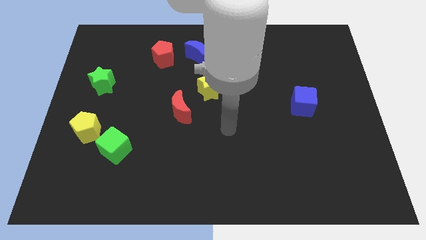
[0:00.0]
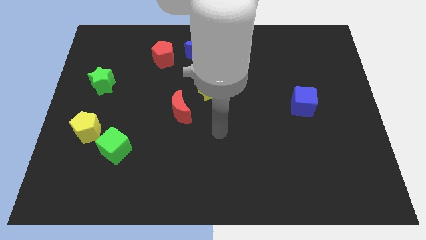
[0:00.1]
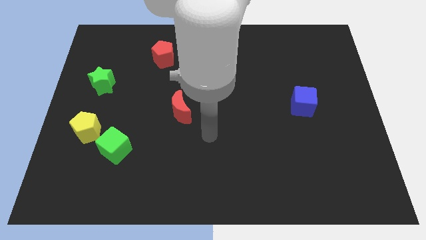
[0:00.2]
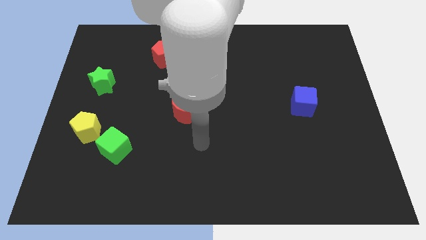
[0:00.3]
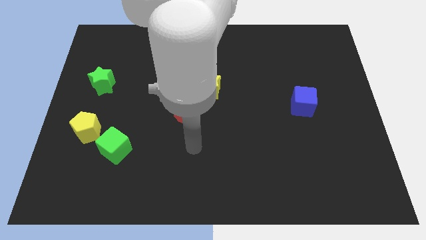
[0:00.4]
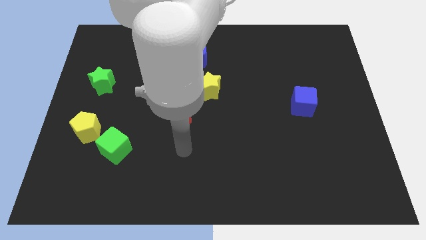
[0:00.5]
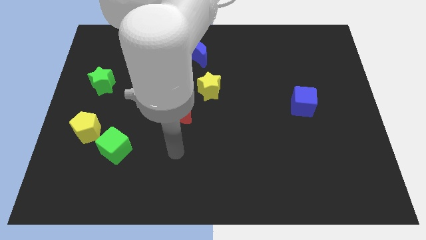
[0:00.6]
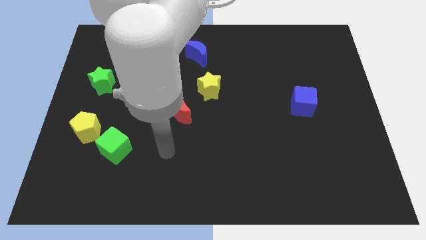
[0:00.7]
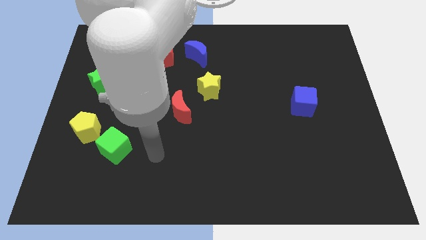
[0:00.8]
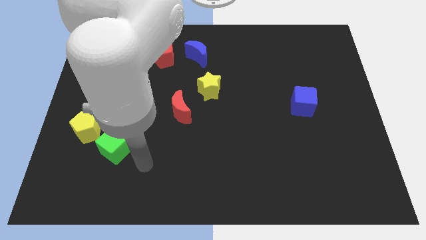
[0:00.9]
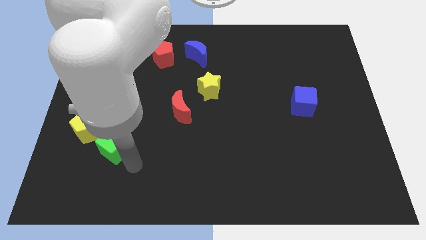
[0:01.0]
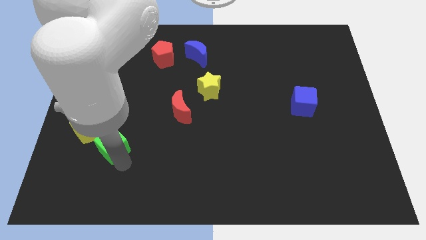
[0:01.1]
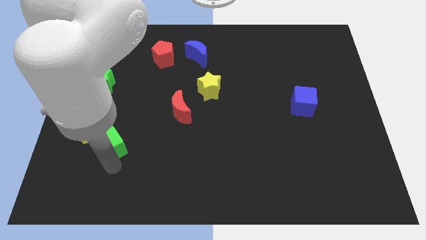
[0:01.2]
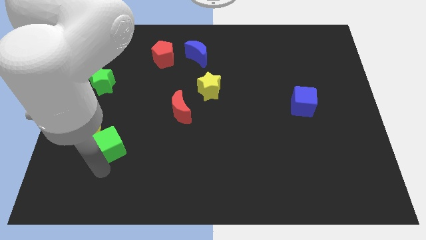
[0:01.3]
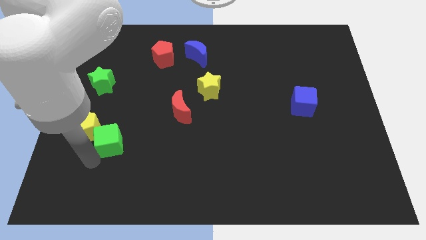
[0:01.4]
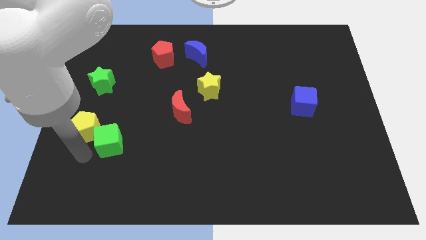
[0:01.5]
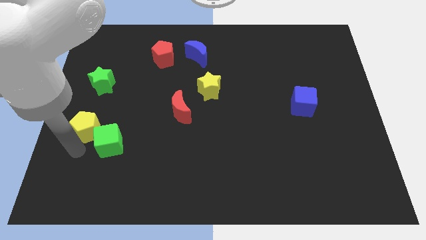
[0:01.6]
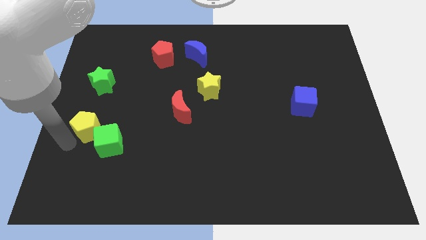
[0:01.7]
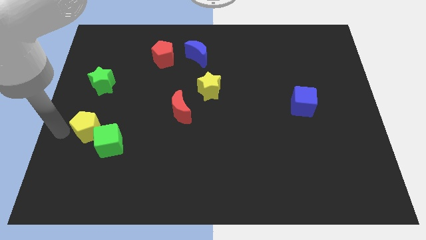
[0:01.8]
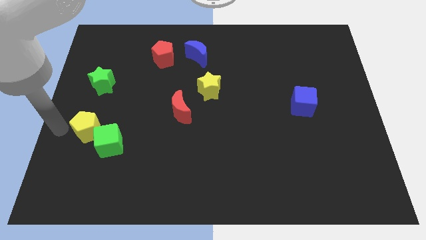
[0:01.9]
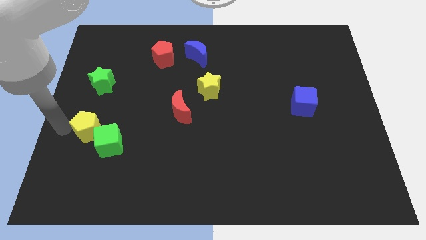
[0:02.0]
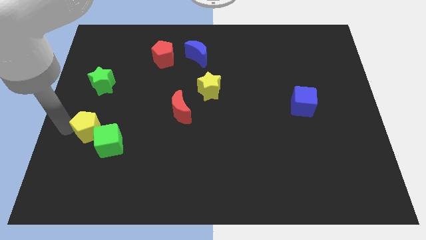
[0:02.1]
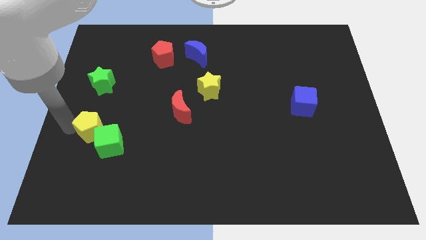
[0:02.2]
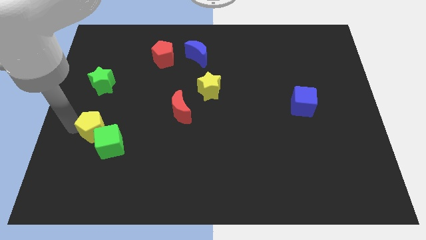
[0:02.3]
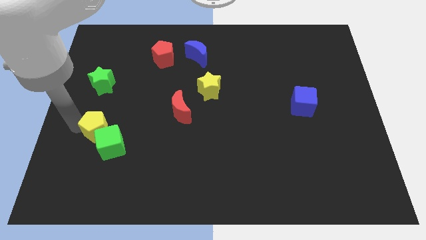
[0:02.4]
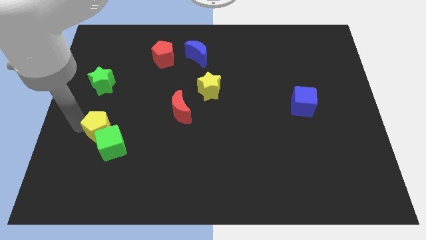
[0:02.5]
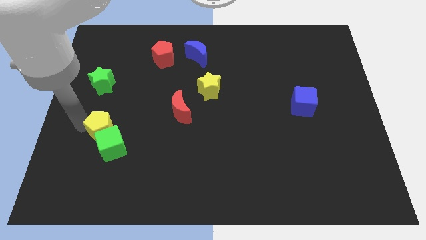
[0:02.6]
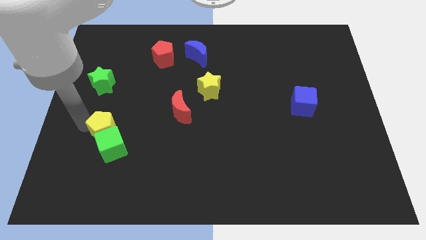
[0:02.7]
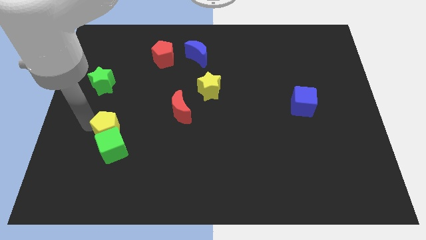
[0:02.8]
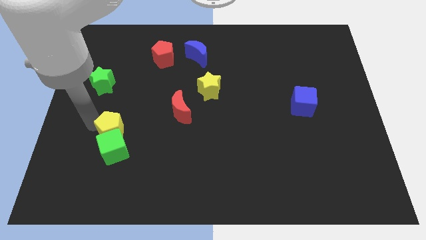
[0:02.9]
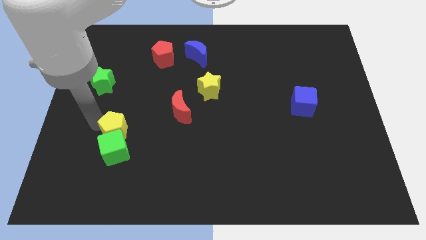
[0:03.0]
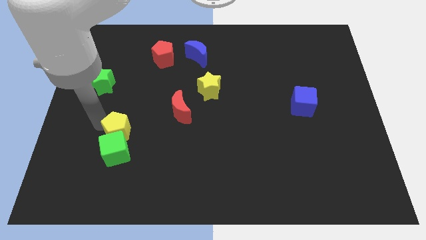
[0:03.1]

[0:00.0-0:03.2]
slide the yellow pentagon to the right a bit

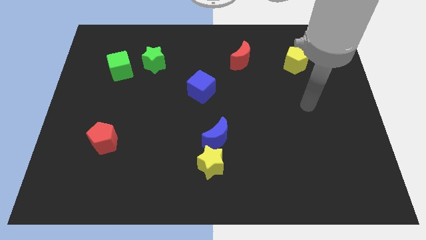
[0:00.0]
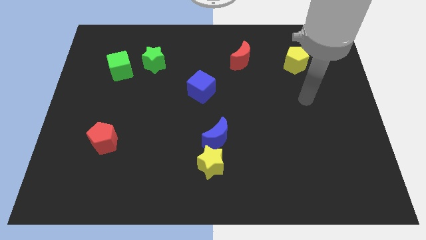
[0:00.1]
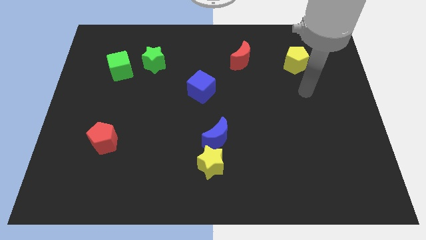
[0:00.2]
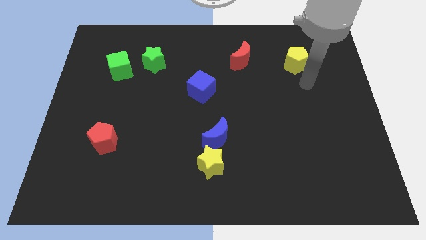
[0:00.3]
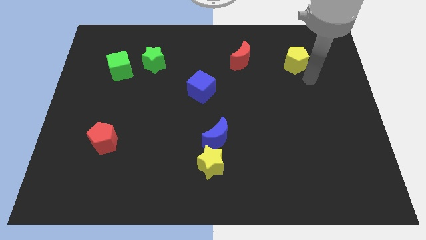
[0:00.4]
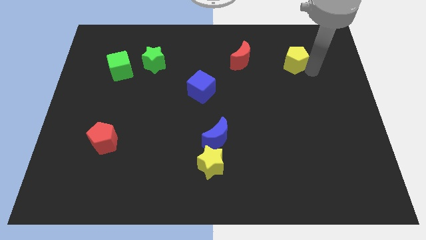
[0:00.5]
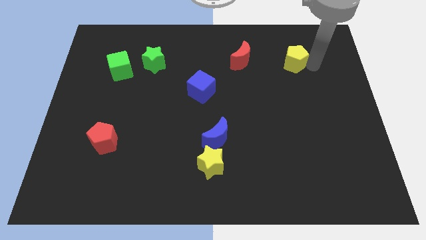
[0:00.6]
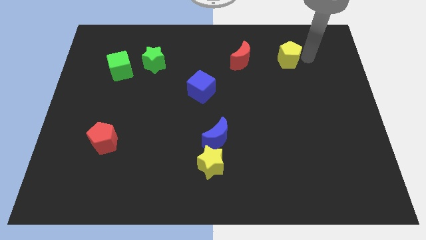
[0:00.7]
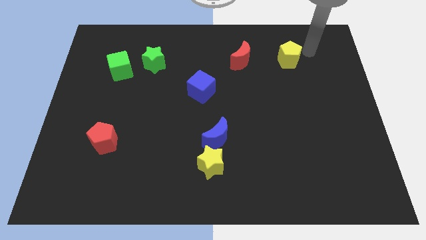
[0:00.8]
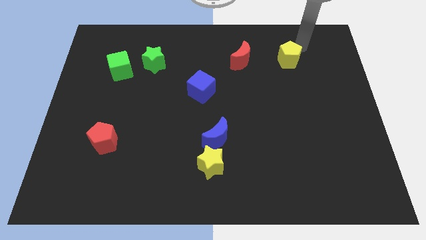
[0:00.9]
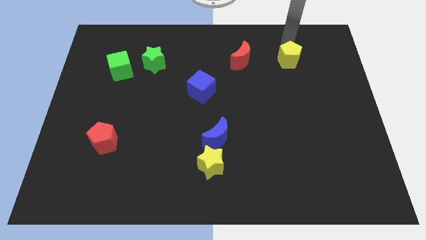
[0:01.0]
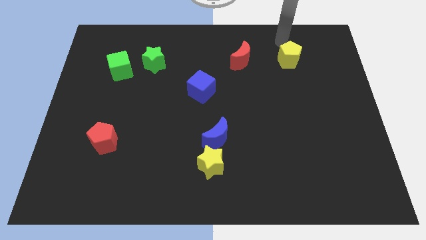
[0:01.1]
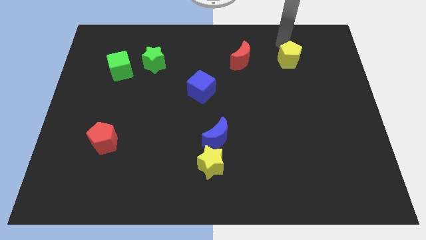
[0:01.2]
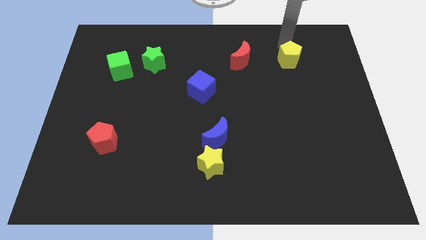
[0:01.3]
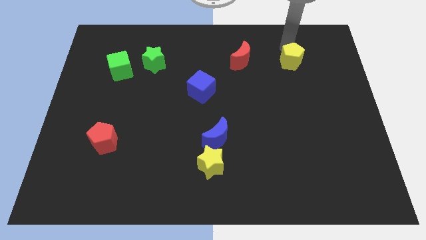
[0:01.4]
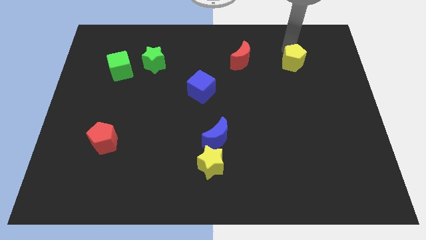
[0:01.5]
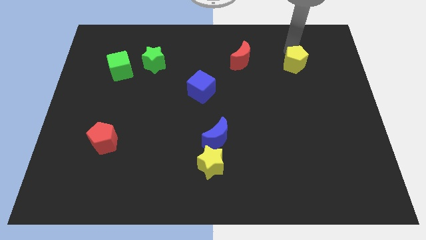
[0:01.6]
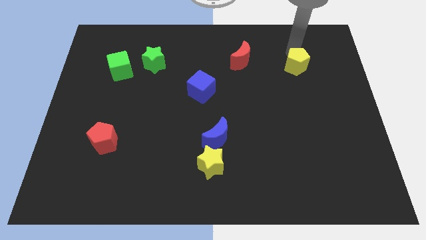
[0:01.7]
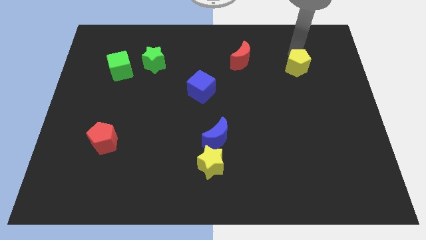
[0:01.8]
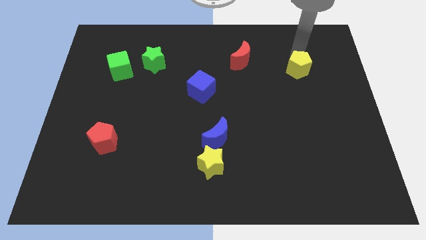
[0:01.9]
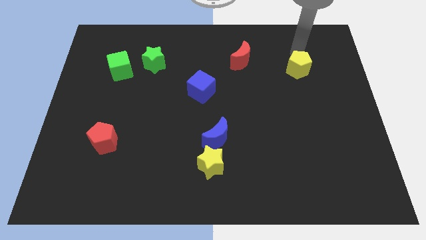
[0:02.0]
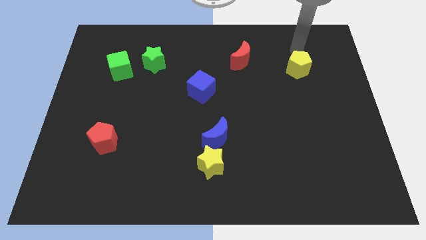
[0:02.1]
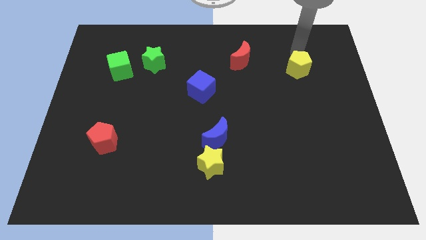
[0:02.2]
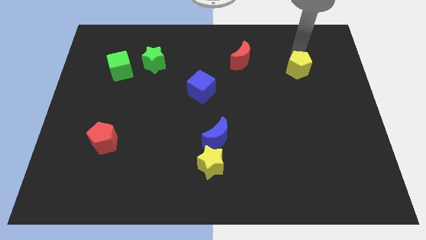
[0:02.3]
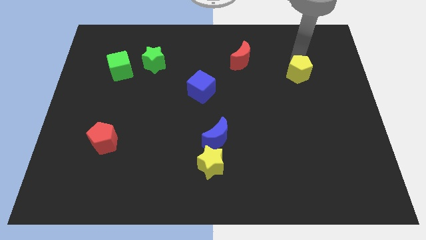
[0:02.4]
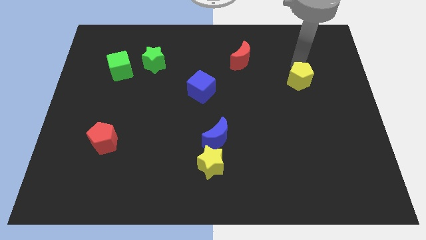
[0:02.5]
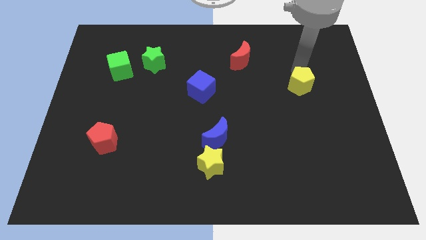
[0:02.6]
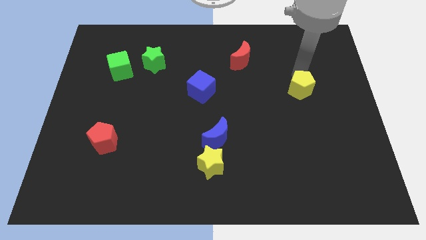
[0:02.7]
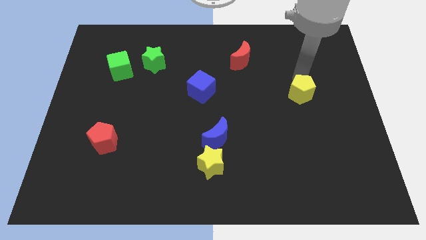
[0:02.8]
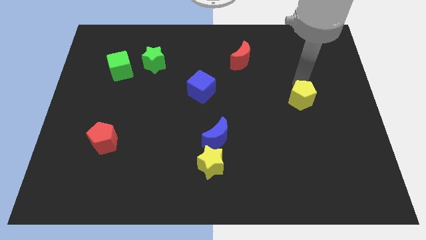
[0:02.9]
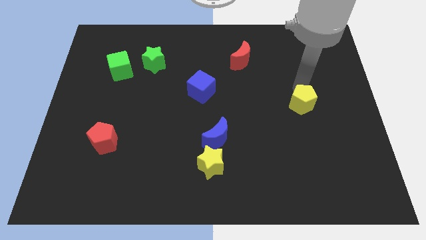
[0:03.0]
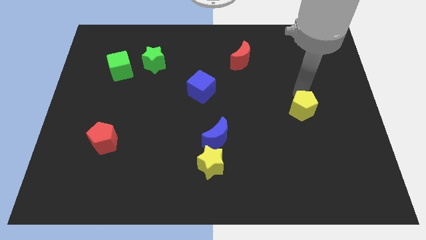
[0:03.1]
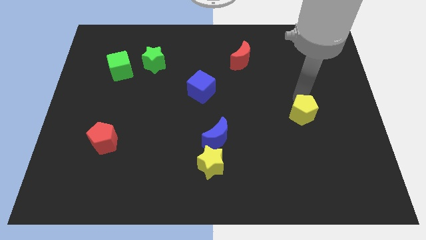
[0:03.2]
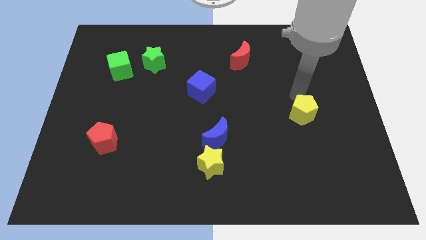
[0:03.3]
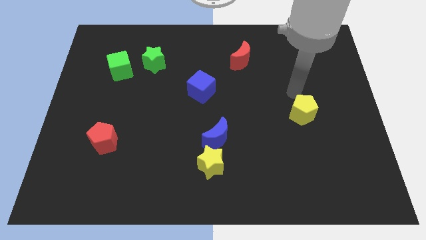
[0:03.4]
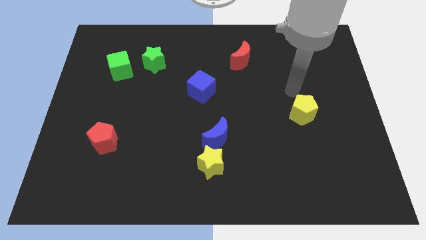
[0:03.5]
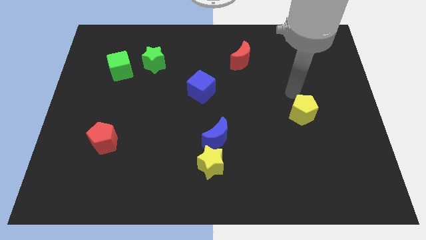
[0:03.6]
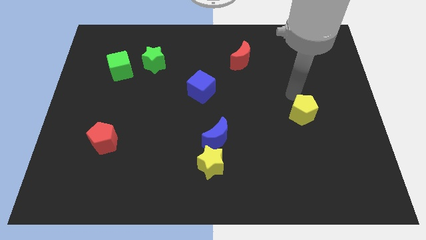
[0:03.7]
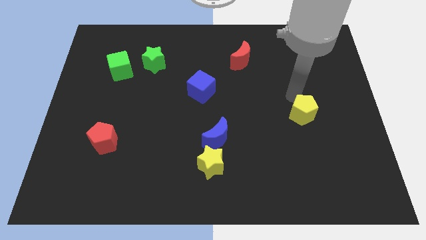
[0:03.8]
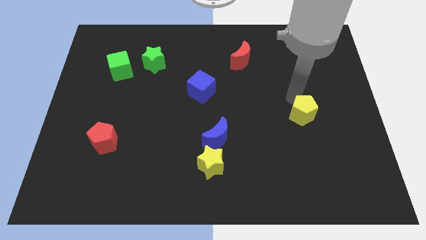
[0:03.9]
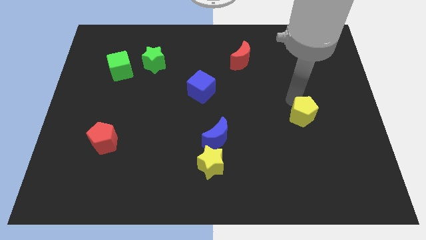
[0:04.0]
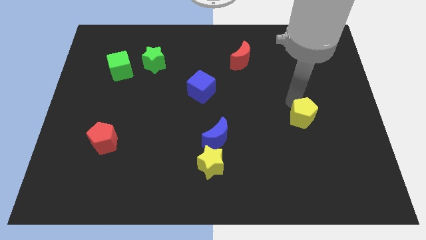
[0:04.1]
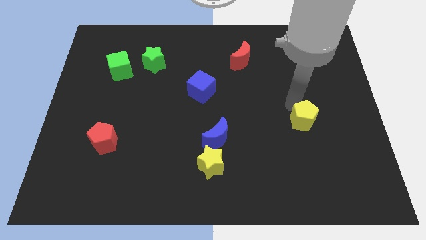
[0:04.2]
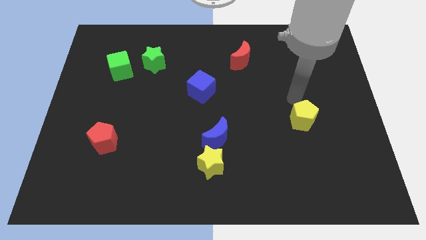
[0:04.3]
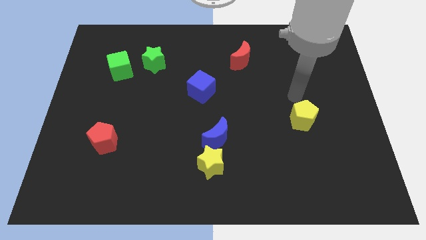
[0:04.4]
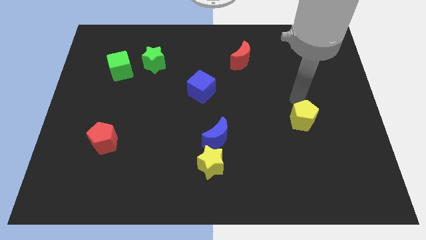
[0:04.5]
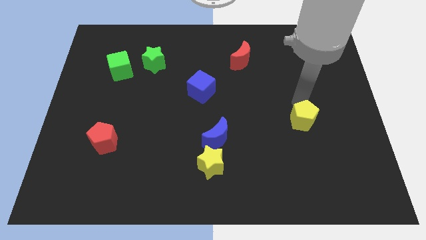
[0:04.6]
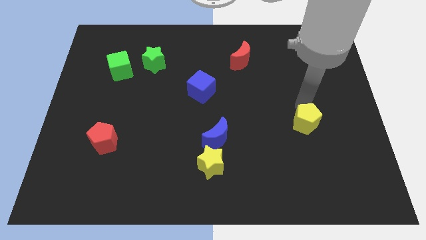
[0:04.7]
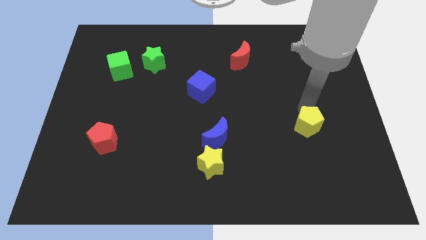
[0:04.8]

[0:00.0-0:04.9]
slide the yellow pentagon down

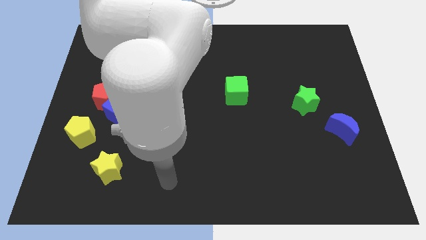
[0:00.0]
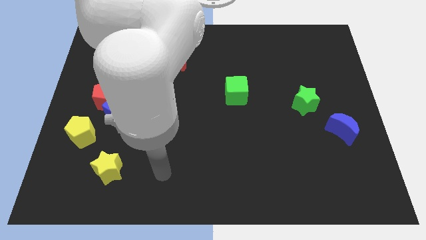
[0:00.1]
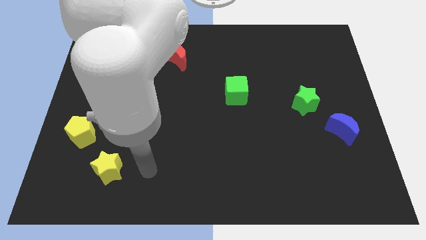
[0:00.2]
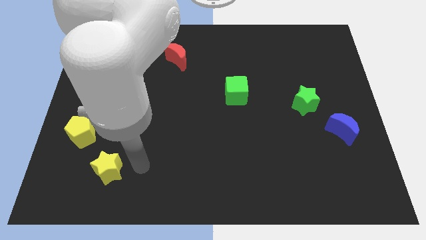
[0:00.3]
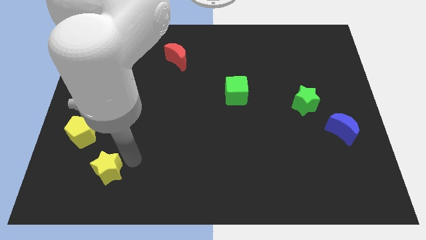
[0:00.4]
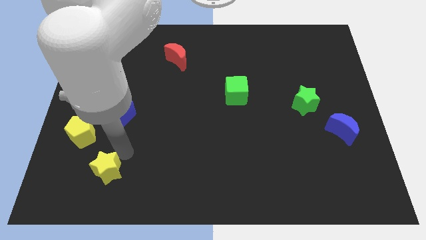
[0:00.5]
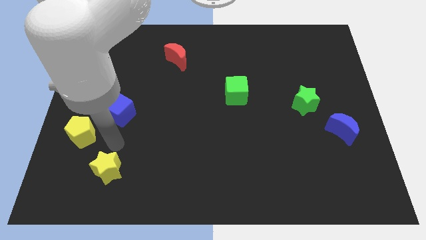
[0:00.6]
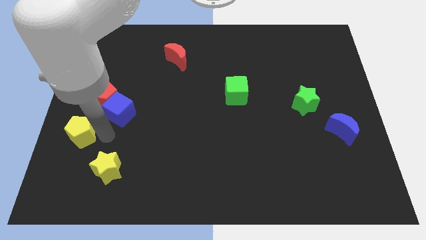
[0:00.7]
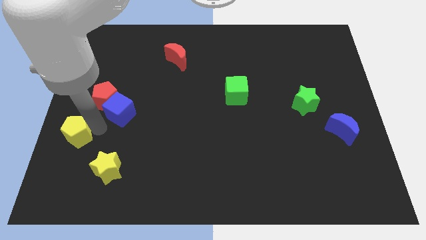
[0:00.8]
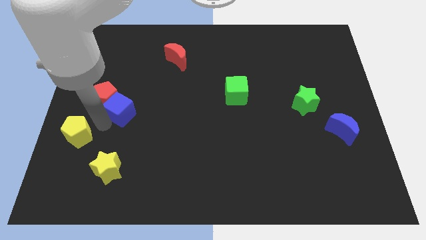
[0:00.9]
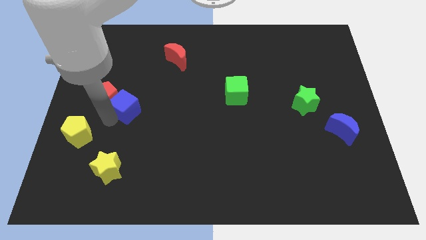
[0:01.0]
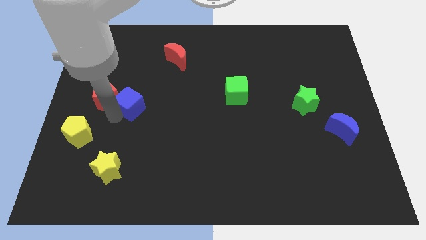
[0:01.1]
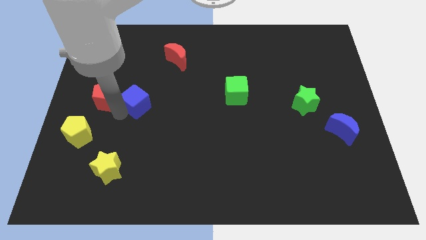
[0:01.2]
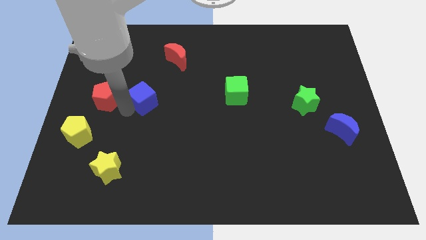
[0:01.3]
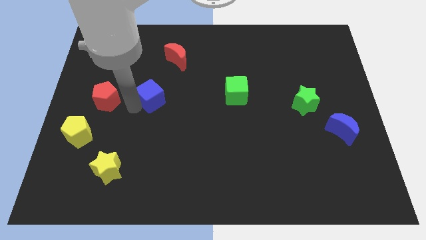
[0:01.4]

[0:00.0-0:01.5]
slide the blue cube a little up and then right
